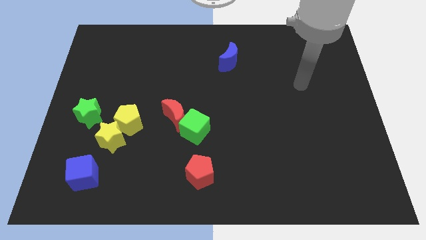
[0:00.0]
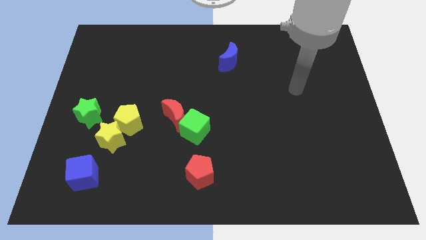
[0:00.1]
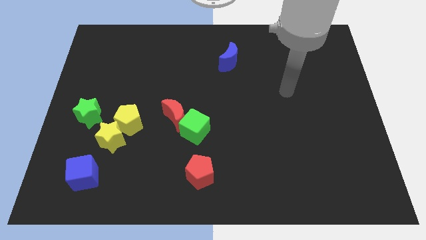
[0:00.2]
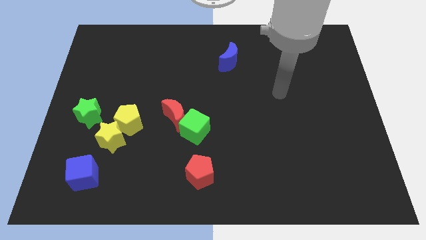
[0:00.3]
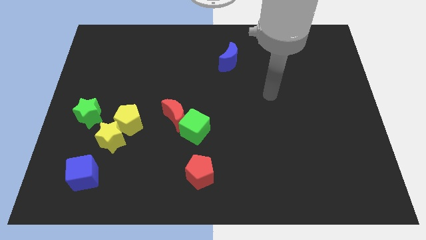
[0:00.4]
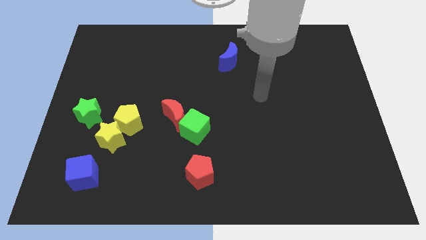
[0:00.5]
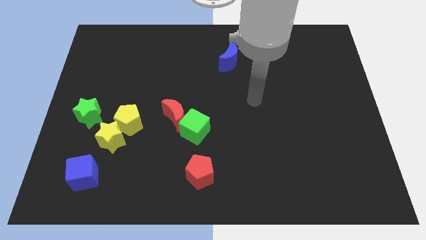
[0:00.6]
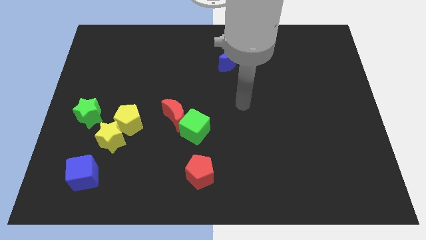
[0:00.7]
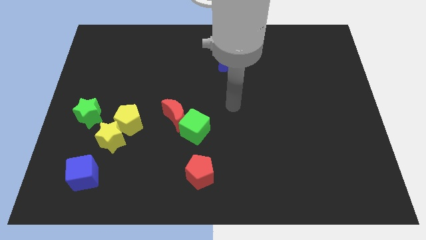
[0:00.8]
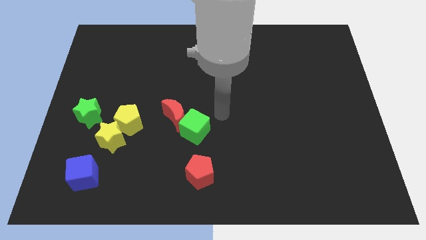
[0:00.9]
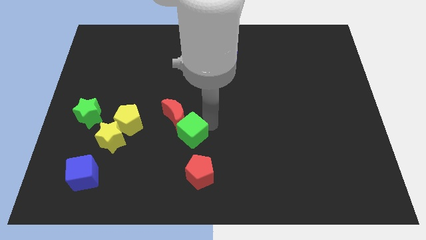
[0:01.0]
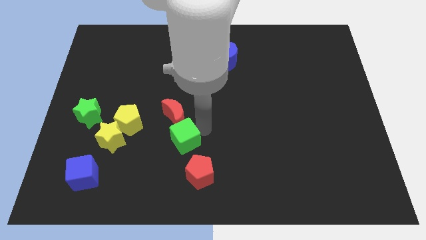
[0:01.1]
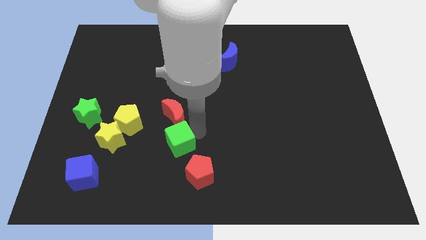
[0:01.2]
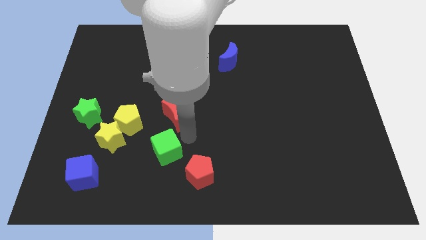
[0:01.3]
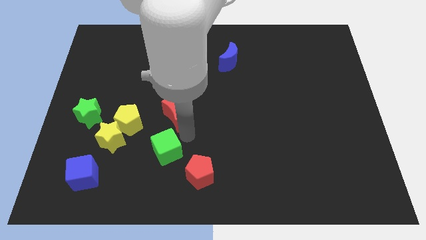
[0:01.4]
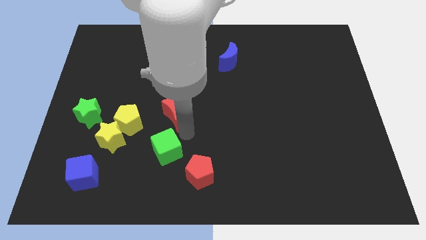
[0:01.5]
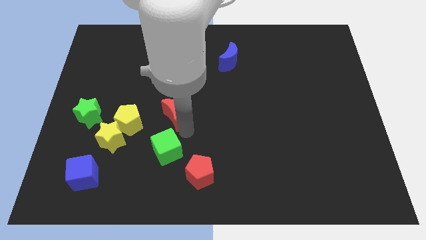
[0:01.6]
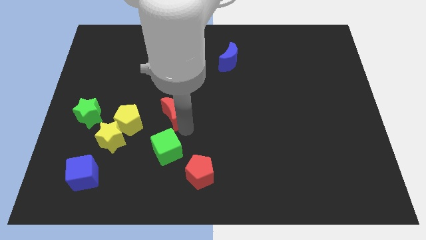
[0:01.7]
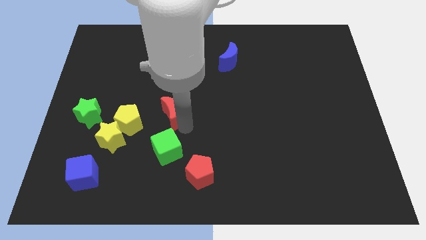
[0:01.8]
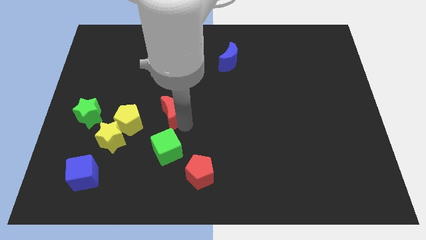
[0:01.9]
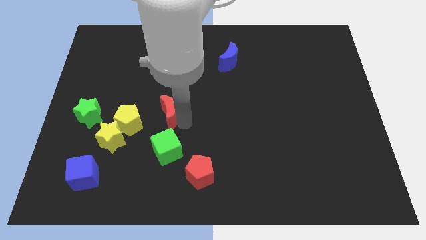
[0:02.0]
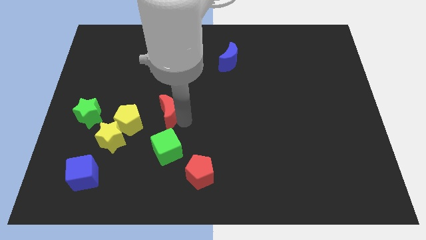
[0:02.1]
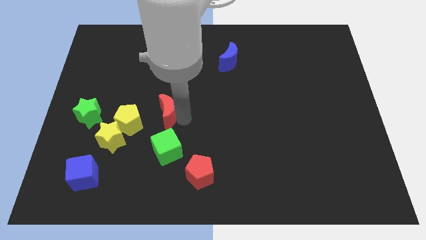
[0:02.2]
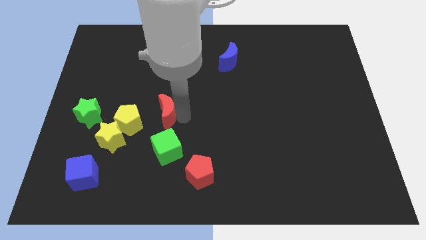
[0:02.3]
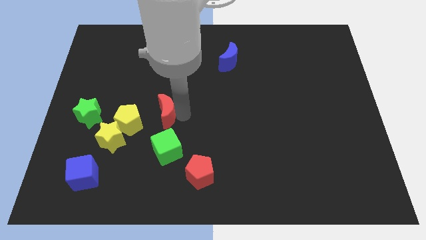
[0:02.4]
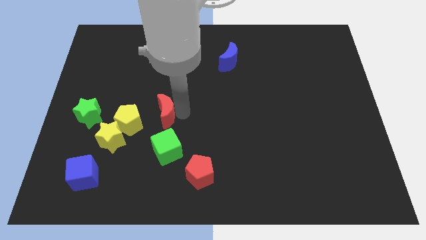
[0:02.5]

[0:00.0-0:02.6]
pull the red moon apart from the green cube

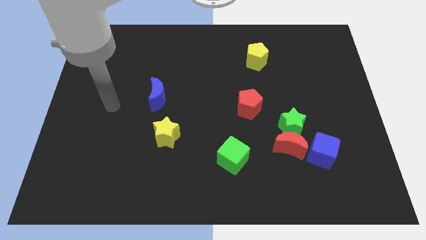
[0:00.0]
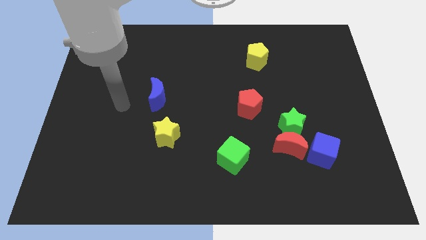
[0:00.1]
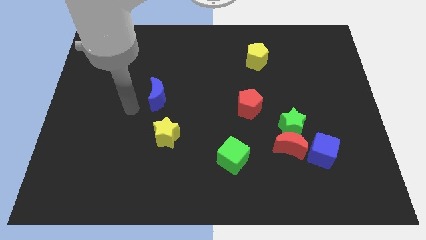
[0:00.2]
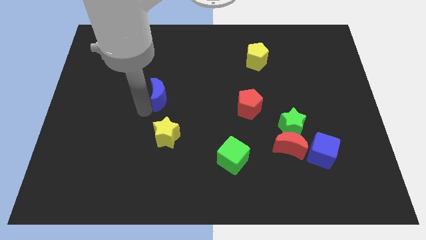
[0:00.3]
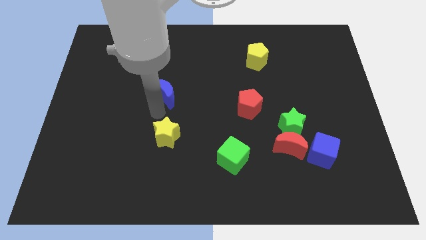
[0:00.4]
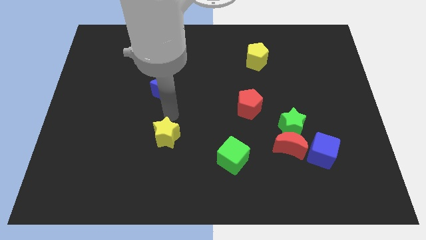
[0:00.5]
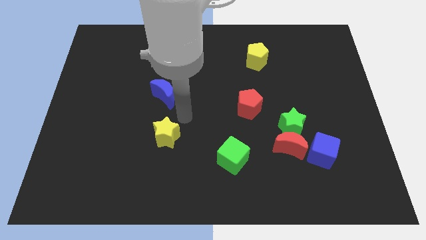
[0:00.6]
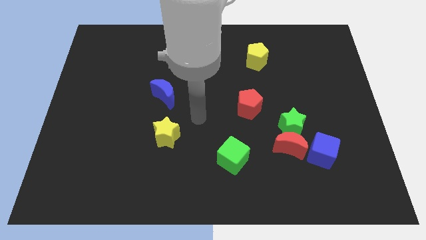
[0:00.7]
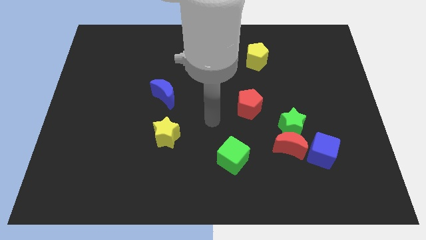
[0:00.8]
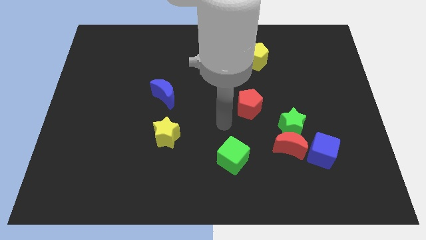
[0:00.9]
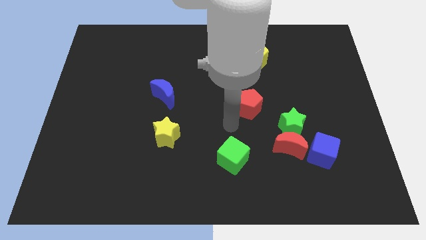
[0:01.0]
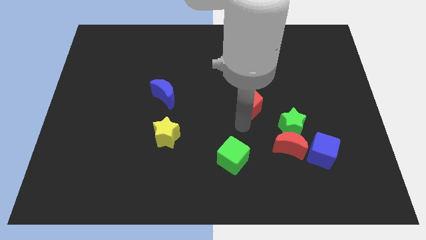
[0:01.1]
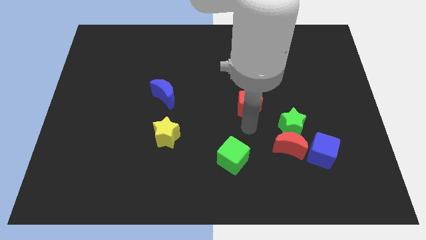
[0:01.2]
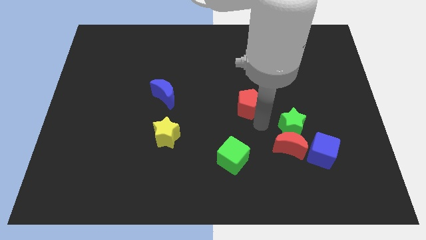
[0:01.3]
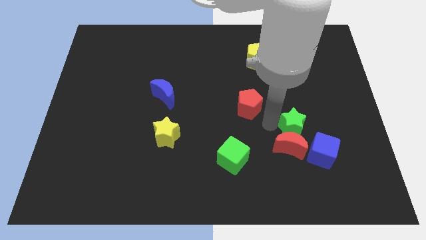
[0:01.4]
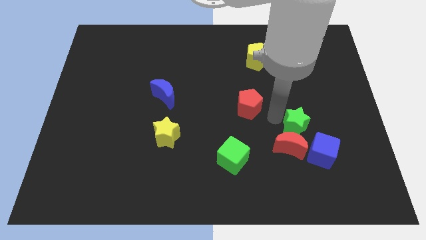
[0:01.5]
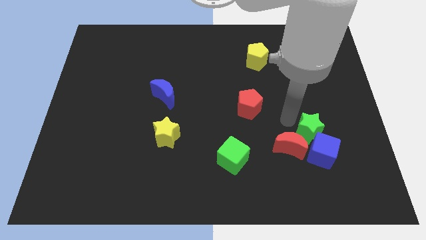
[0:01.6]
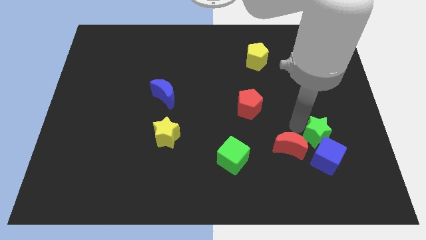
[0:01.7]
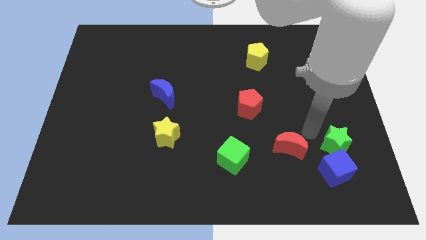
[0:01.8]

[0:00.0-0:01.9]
separate the red moon from the green star and blue cube

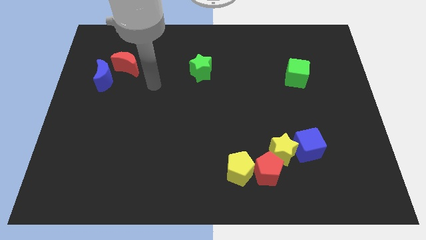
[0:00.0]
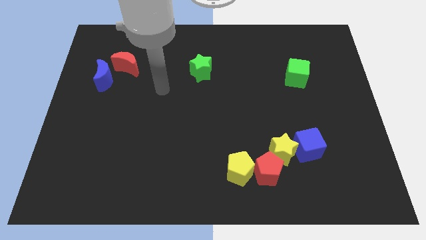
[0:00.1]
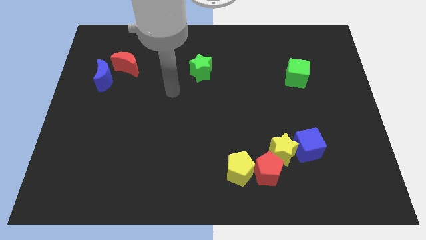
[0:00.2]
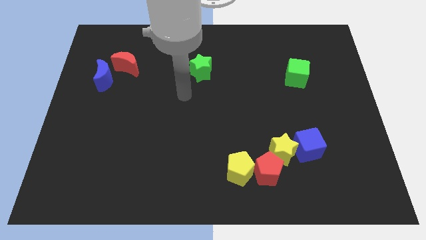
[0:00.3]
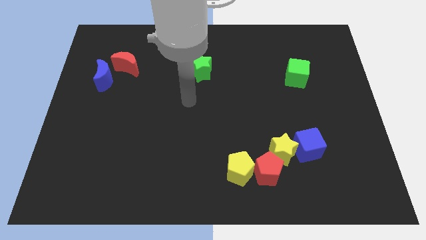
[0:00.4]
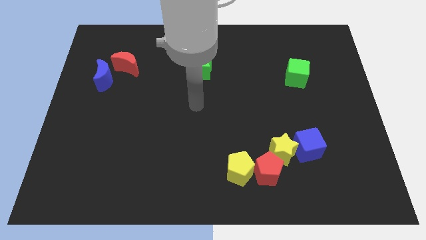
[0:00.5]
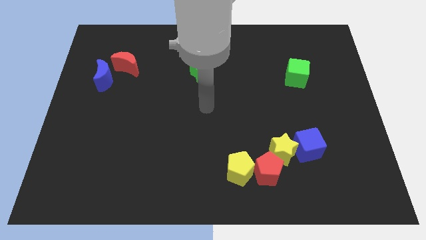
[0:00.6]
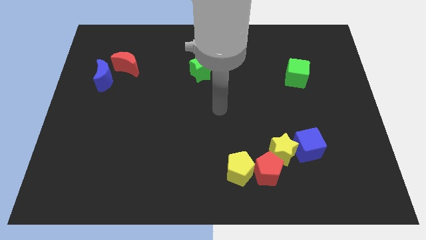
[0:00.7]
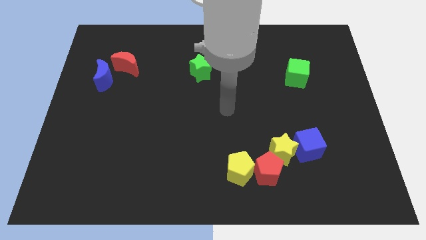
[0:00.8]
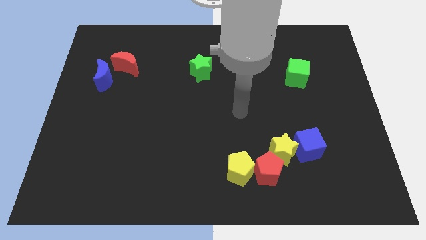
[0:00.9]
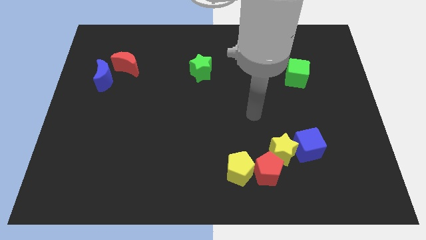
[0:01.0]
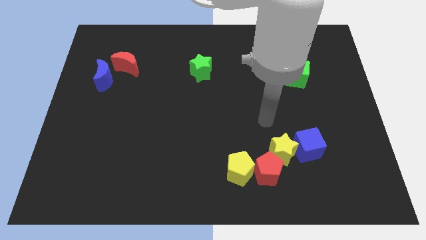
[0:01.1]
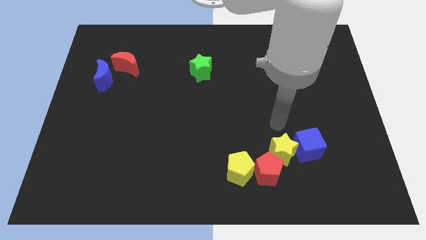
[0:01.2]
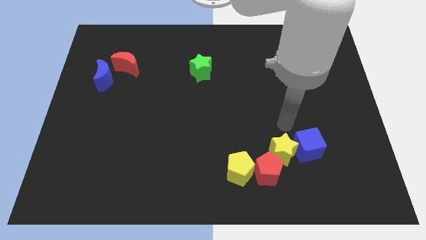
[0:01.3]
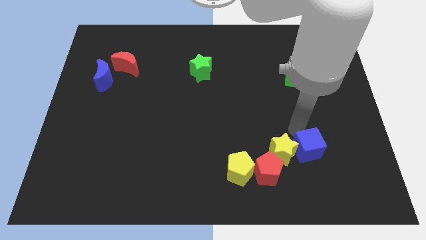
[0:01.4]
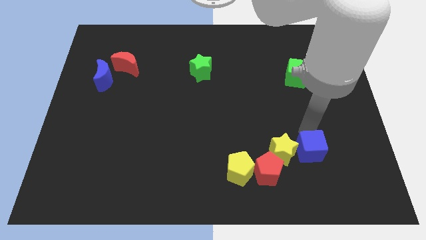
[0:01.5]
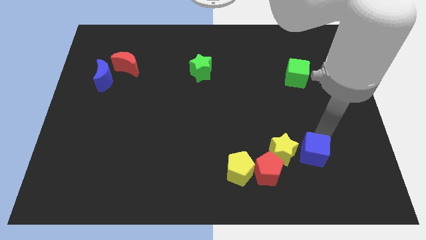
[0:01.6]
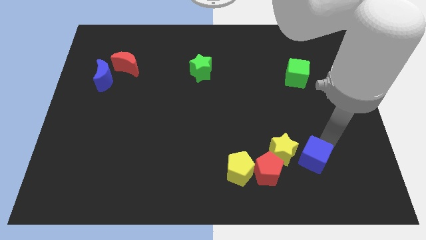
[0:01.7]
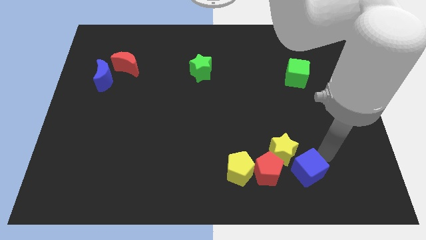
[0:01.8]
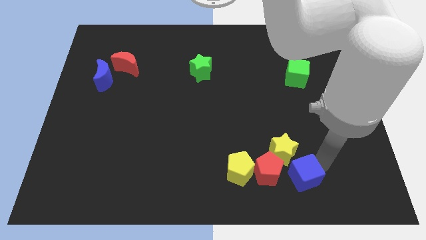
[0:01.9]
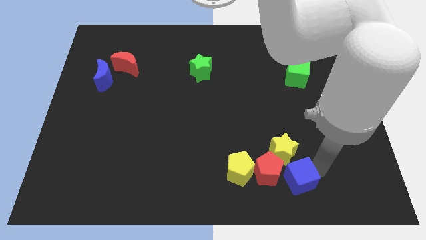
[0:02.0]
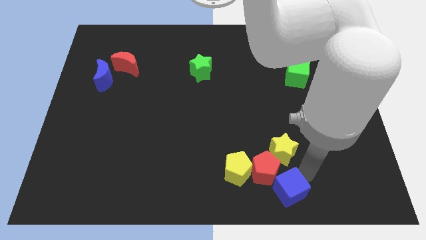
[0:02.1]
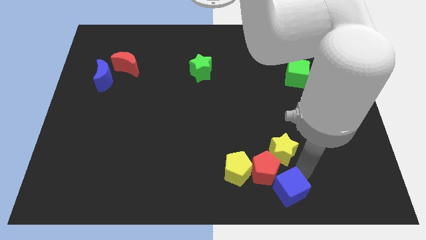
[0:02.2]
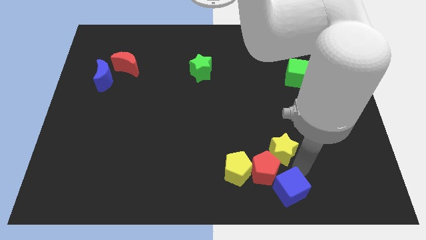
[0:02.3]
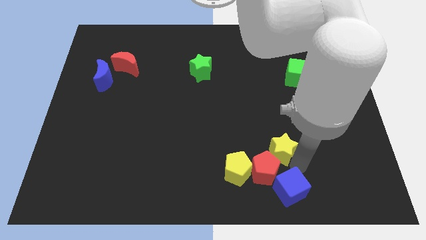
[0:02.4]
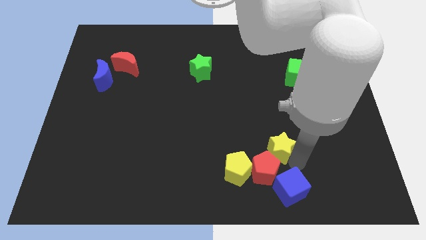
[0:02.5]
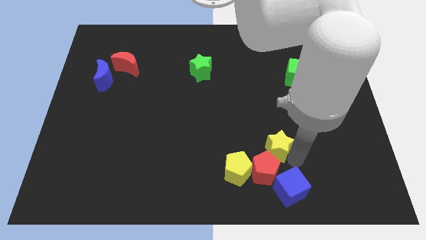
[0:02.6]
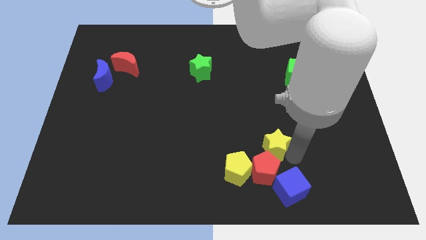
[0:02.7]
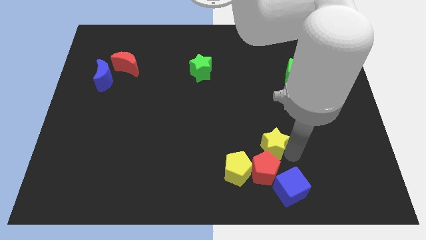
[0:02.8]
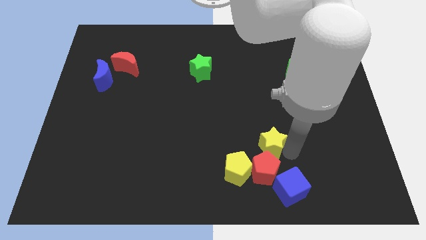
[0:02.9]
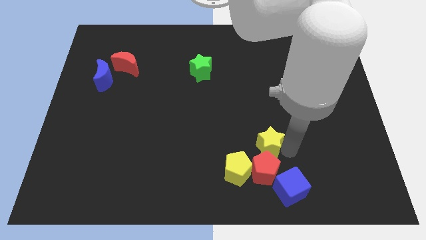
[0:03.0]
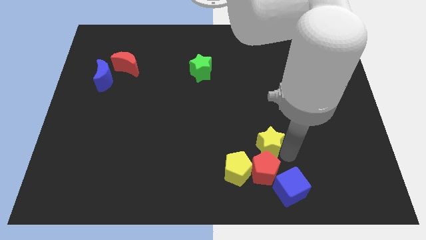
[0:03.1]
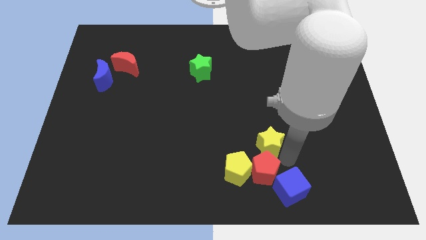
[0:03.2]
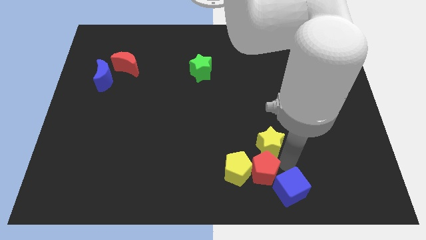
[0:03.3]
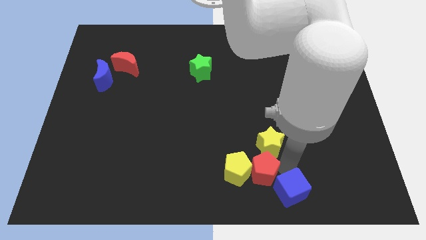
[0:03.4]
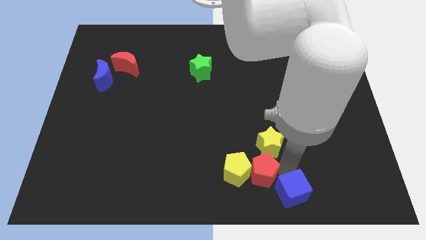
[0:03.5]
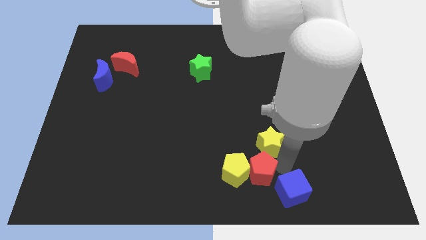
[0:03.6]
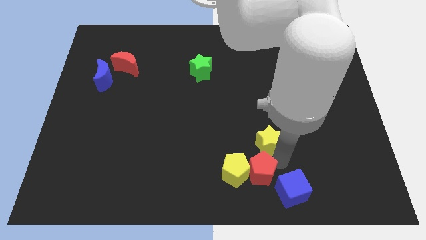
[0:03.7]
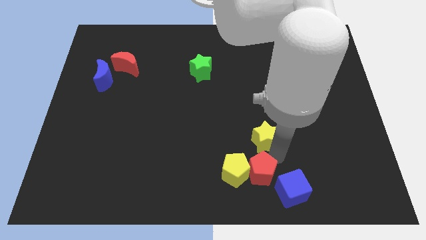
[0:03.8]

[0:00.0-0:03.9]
move the yellow star away from the red pentagon and blue cube

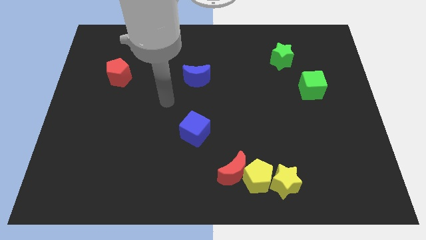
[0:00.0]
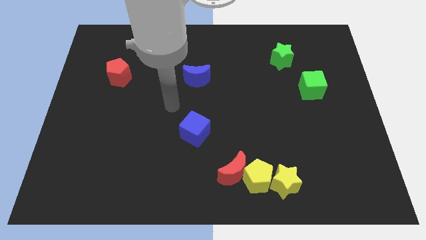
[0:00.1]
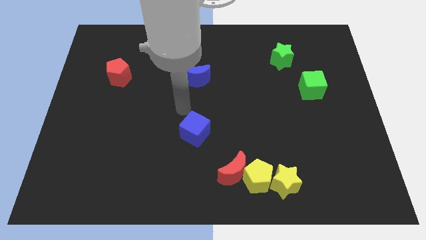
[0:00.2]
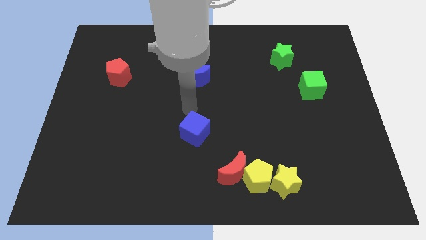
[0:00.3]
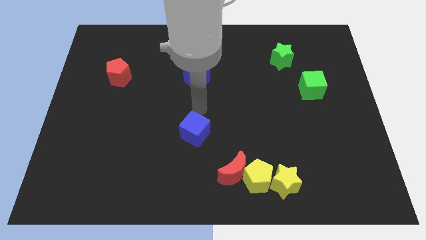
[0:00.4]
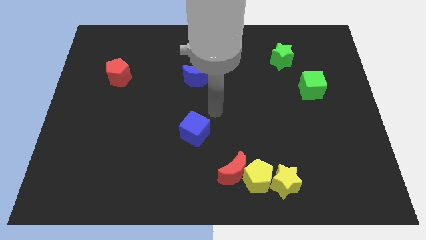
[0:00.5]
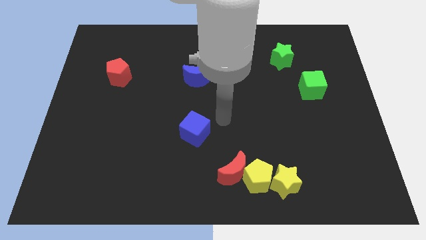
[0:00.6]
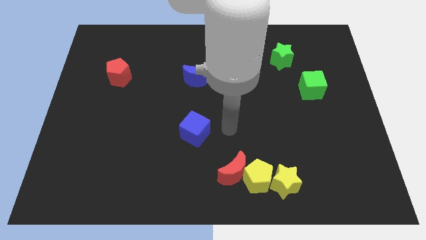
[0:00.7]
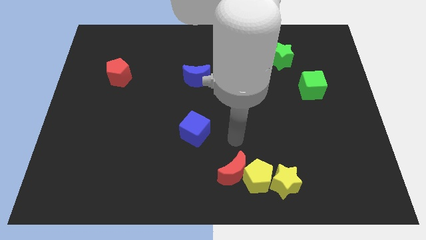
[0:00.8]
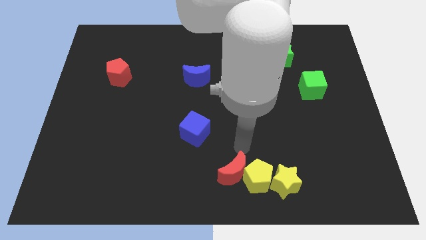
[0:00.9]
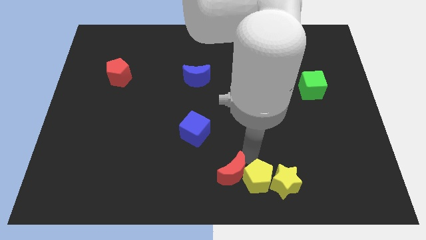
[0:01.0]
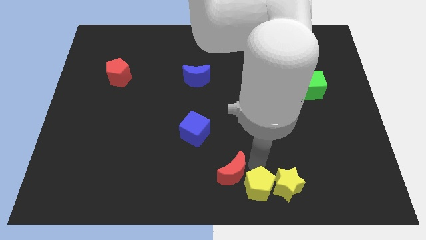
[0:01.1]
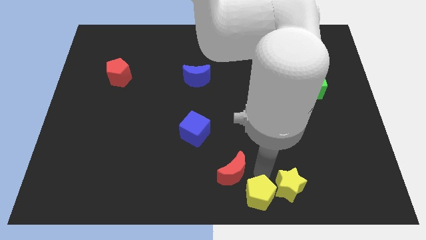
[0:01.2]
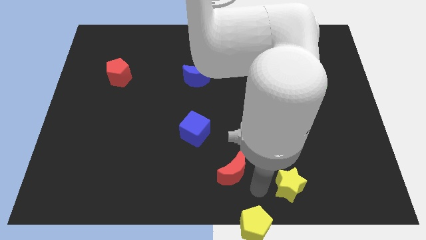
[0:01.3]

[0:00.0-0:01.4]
pull the red moon apart from the yellow pentagon
